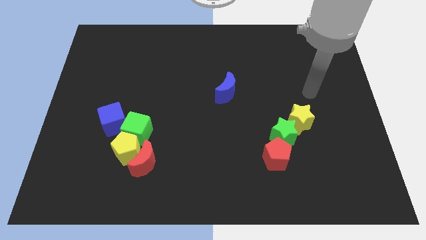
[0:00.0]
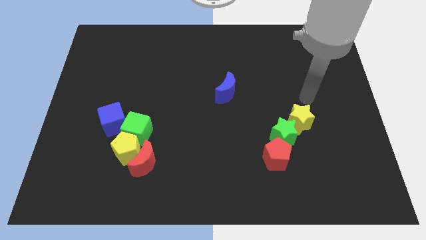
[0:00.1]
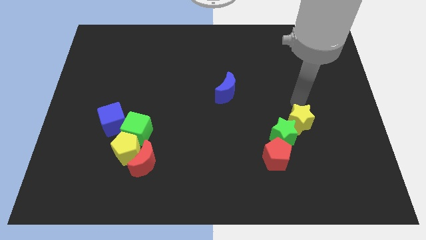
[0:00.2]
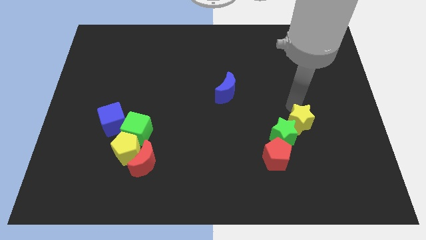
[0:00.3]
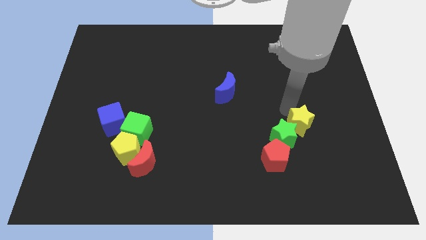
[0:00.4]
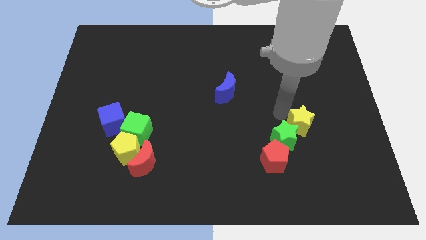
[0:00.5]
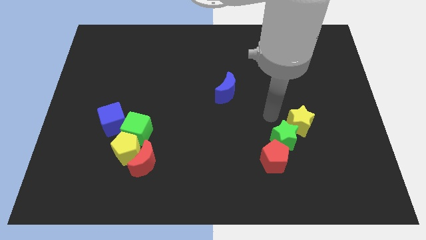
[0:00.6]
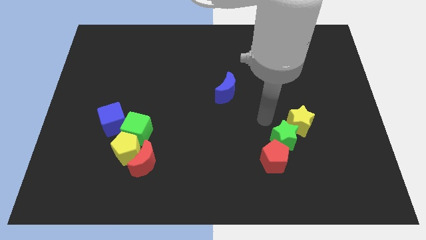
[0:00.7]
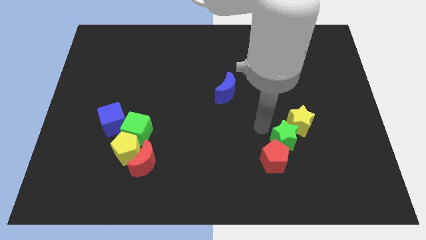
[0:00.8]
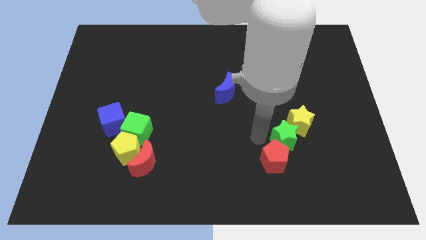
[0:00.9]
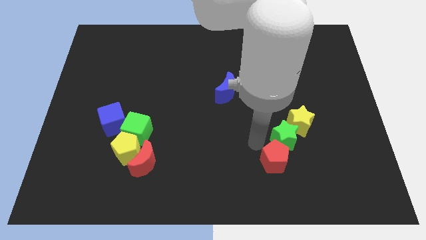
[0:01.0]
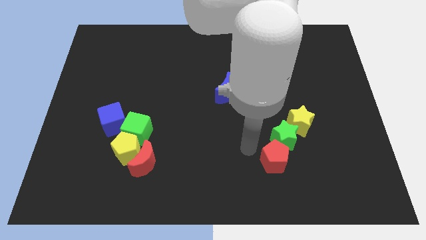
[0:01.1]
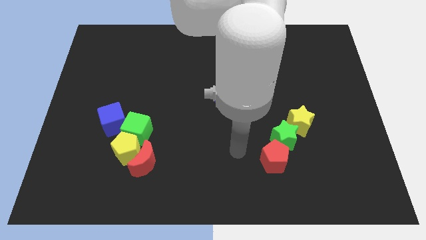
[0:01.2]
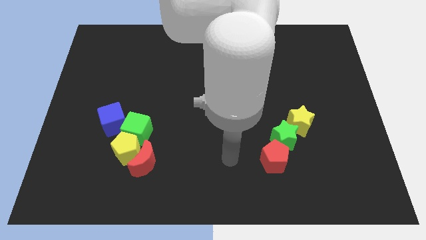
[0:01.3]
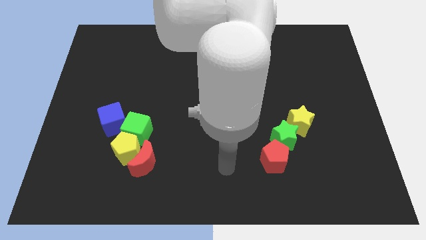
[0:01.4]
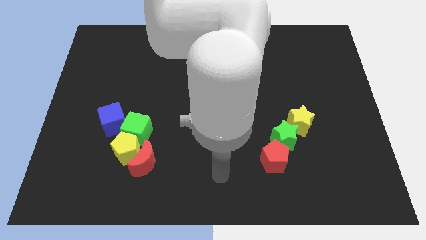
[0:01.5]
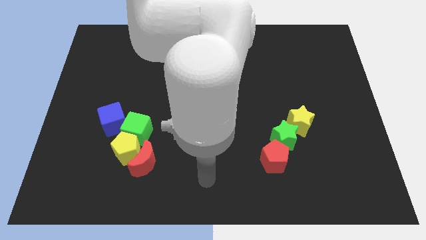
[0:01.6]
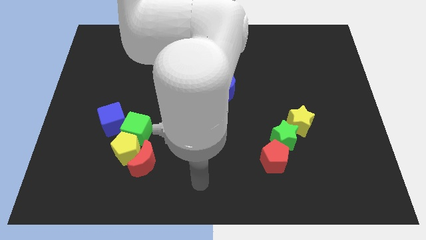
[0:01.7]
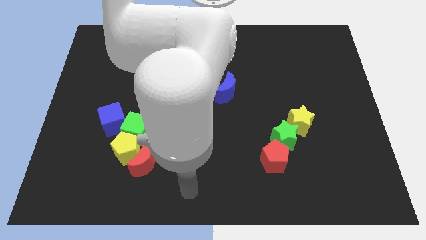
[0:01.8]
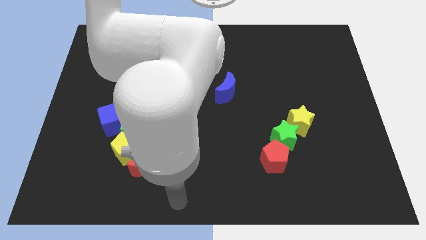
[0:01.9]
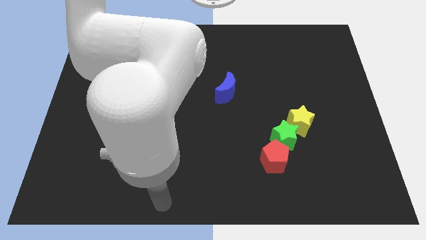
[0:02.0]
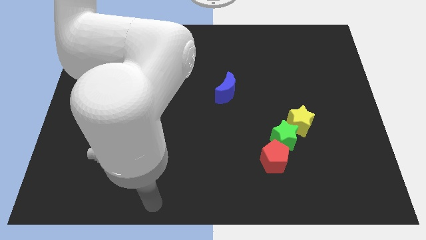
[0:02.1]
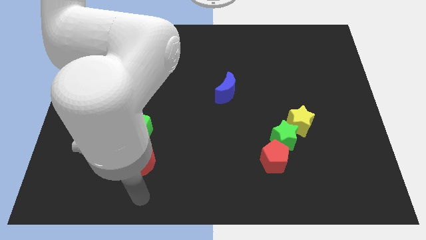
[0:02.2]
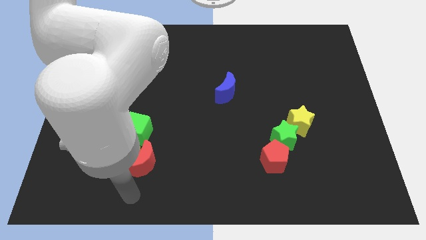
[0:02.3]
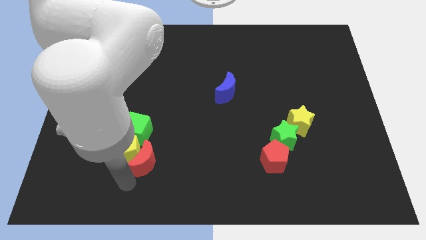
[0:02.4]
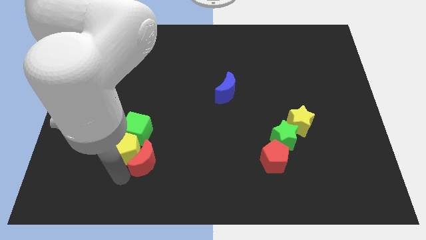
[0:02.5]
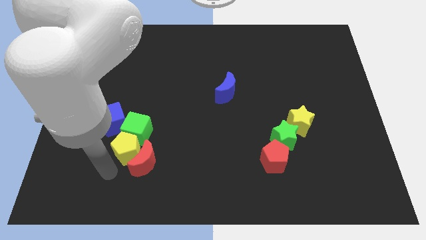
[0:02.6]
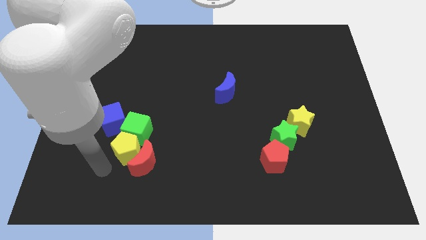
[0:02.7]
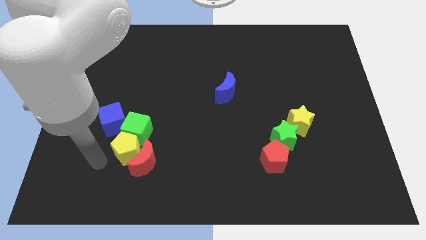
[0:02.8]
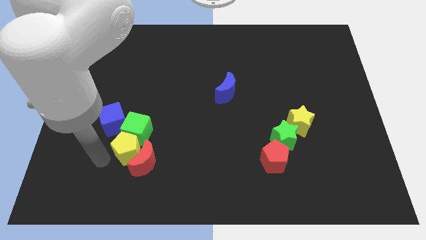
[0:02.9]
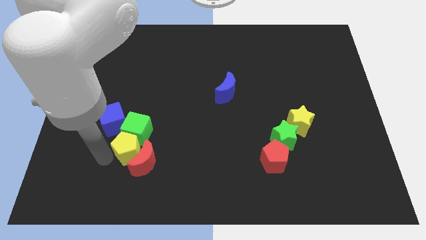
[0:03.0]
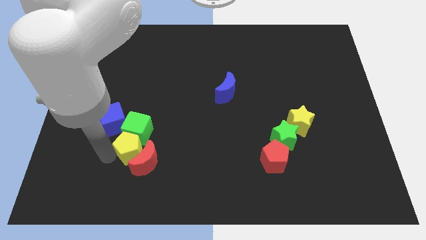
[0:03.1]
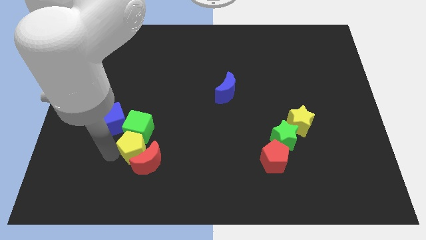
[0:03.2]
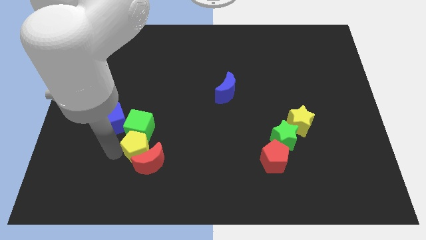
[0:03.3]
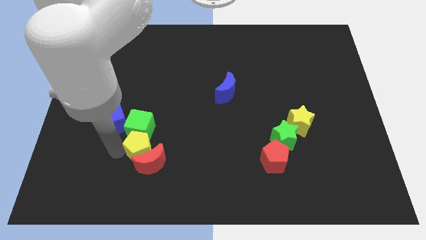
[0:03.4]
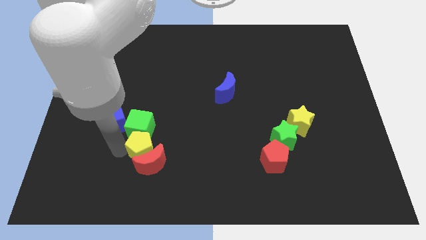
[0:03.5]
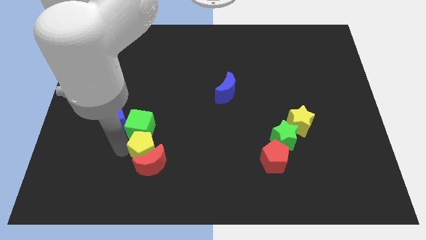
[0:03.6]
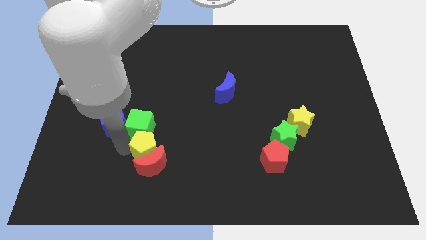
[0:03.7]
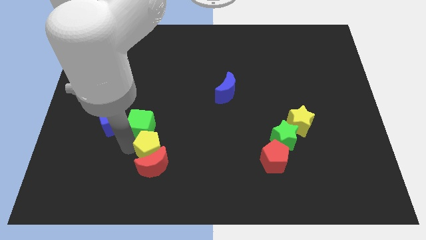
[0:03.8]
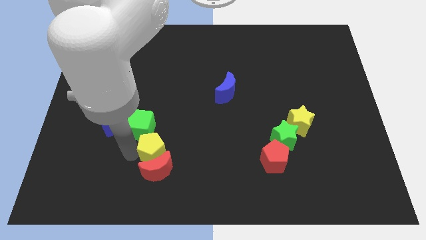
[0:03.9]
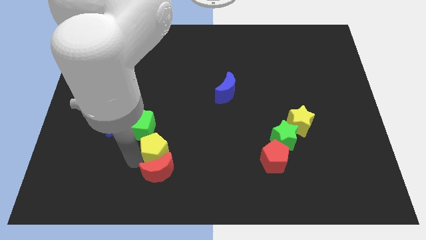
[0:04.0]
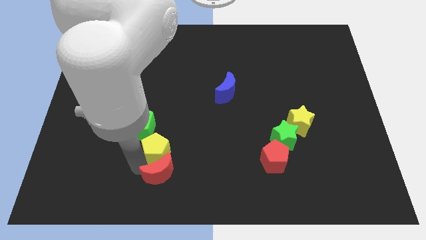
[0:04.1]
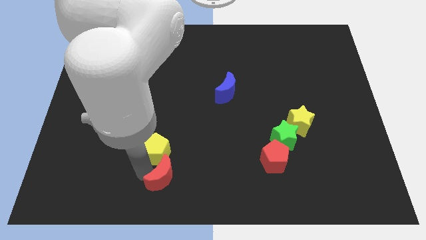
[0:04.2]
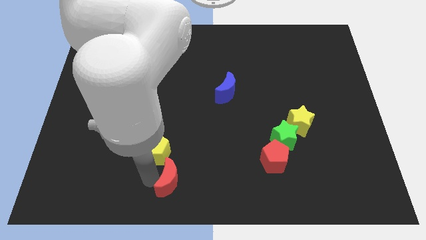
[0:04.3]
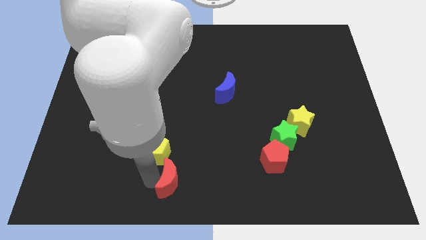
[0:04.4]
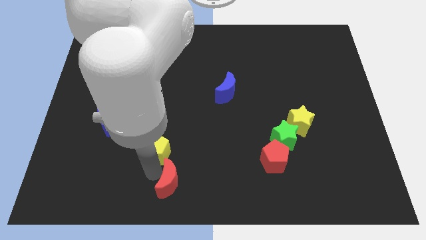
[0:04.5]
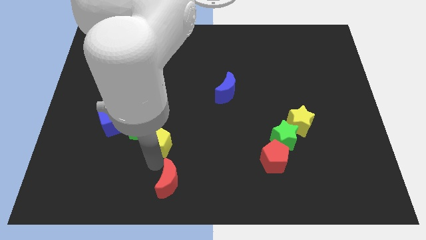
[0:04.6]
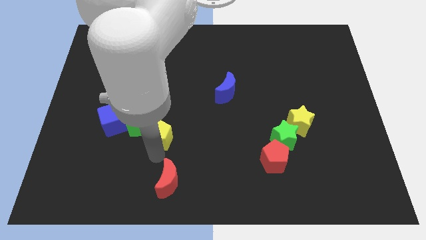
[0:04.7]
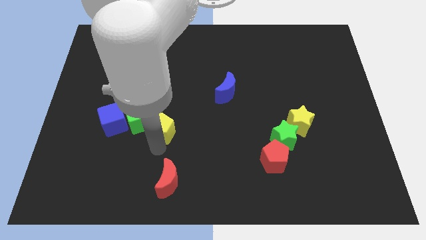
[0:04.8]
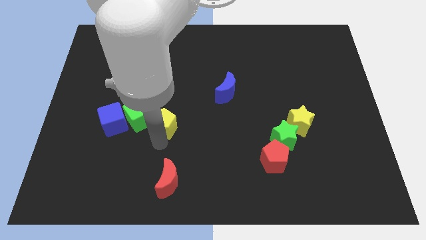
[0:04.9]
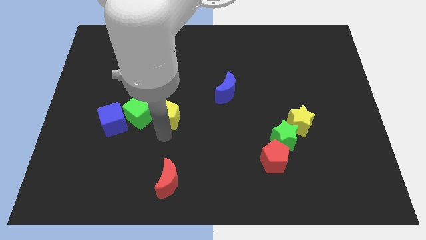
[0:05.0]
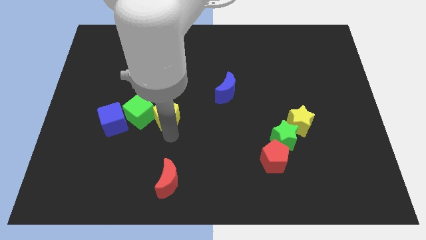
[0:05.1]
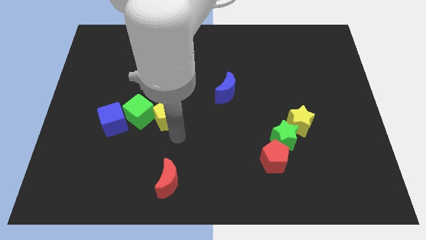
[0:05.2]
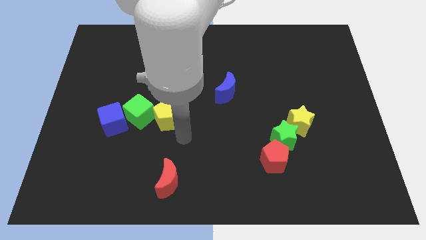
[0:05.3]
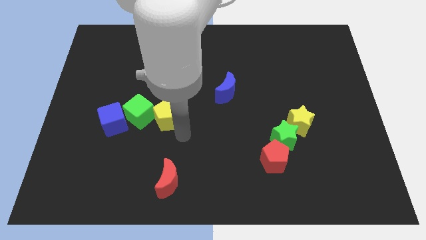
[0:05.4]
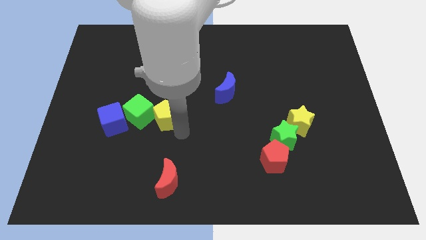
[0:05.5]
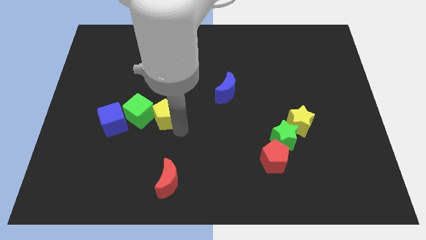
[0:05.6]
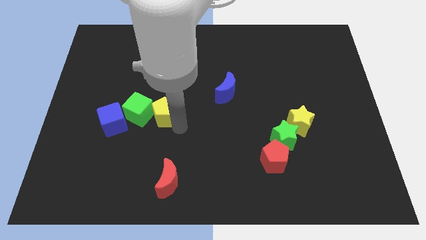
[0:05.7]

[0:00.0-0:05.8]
move the yellow pentagon upwards somewhat

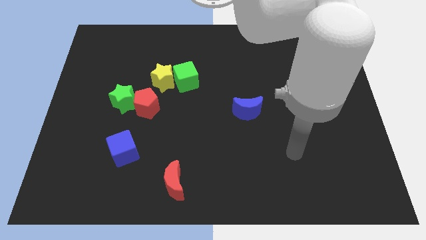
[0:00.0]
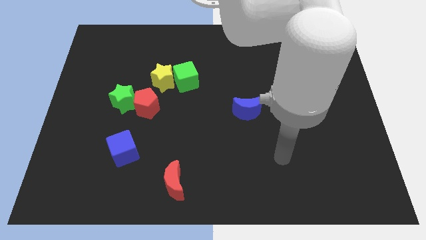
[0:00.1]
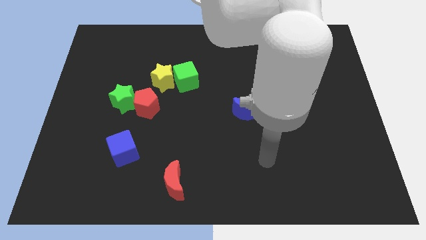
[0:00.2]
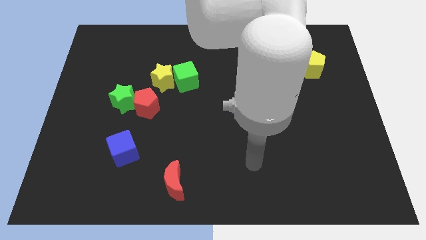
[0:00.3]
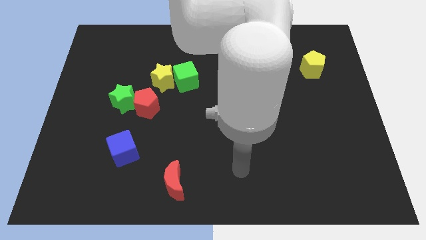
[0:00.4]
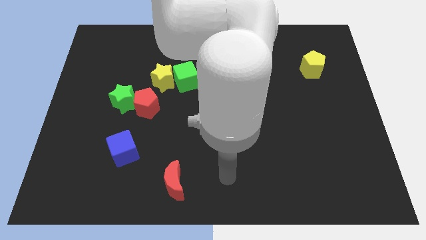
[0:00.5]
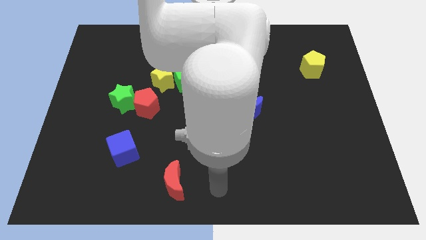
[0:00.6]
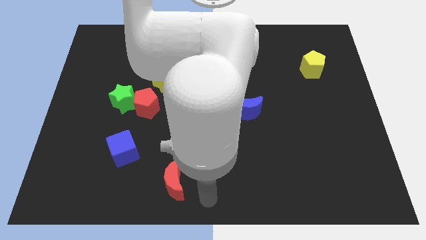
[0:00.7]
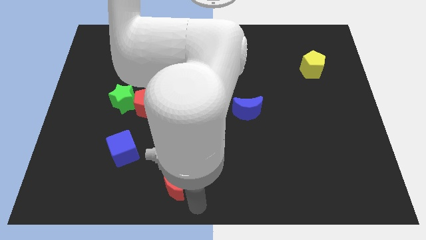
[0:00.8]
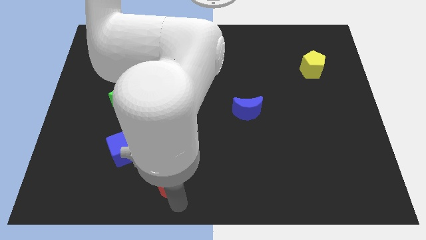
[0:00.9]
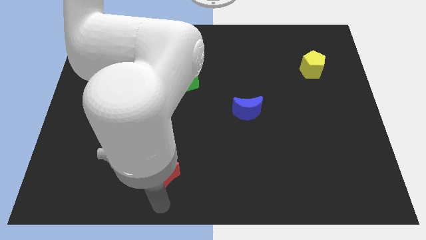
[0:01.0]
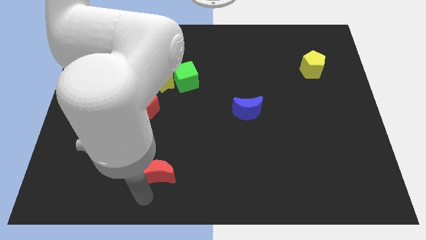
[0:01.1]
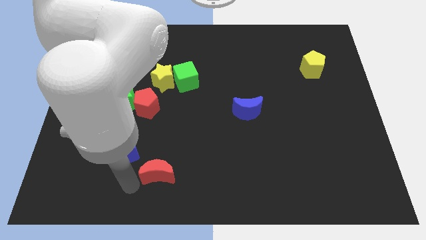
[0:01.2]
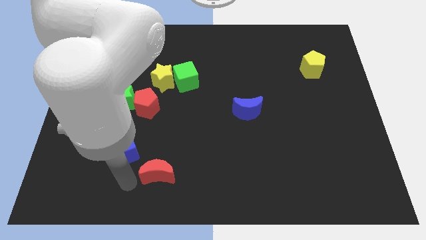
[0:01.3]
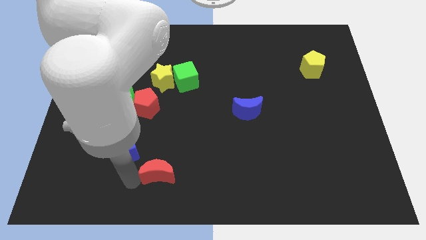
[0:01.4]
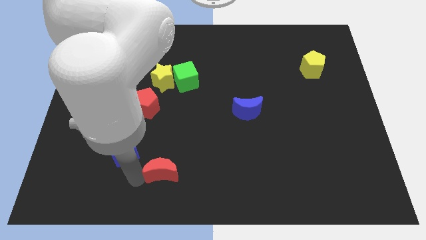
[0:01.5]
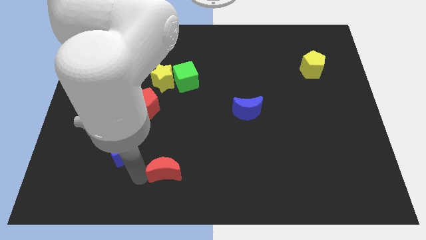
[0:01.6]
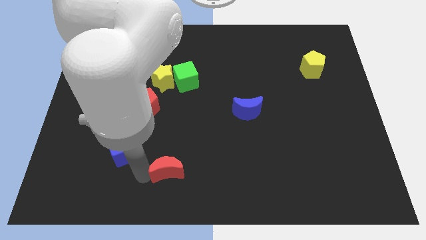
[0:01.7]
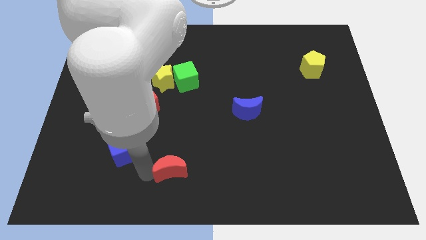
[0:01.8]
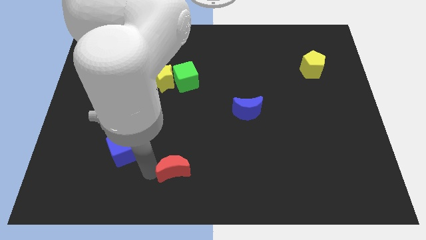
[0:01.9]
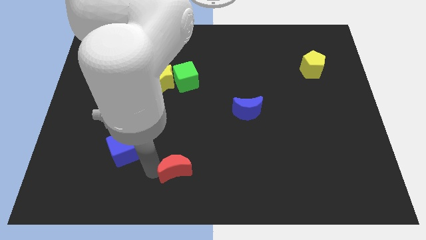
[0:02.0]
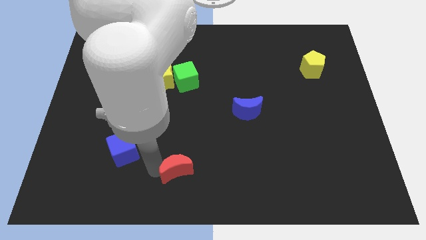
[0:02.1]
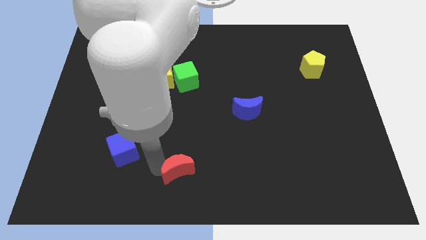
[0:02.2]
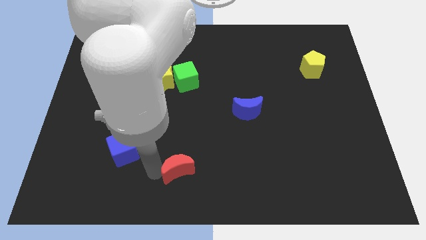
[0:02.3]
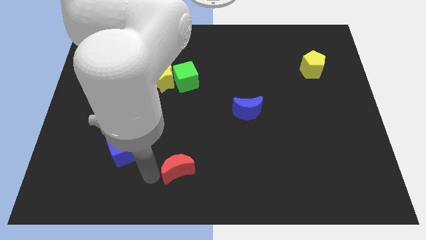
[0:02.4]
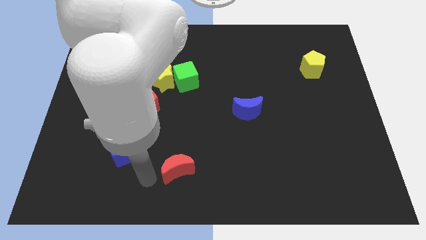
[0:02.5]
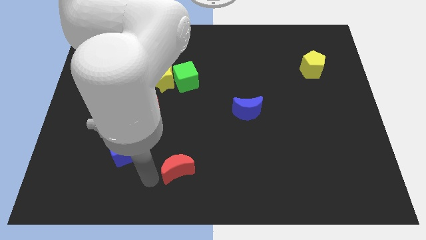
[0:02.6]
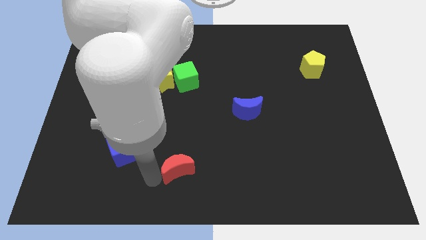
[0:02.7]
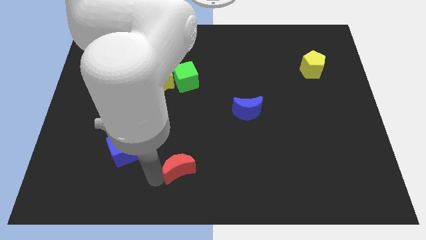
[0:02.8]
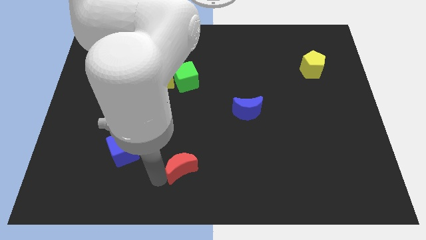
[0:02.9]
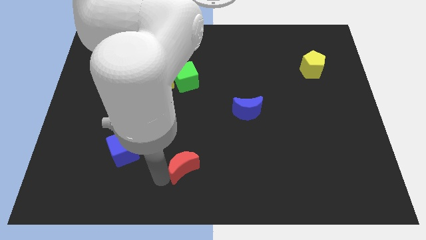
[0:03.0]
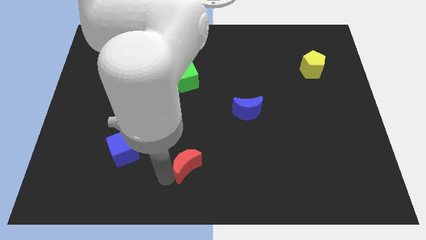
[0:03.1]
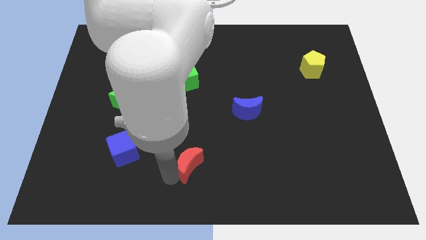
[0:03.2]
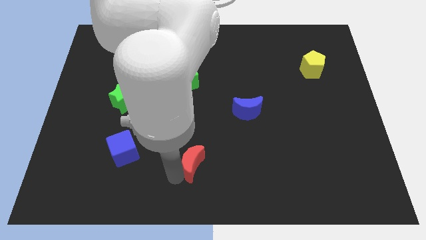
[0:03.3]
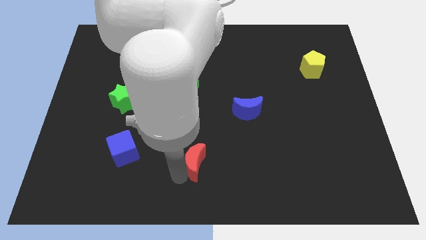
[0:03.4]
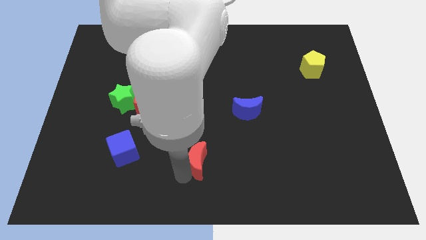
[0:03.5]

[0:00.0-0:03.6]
push the red moon diagonally upwards and to the right slightly
